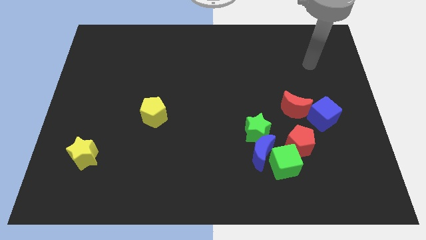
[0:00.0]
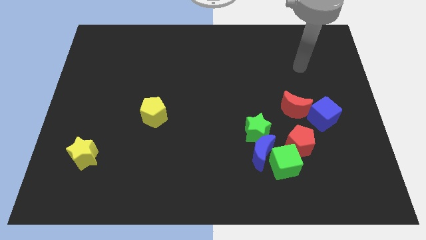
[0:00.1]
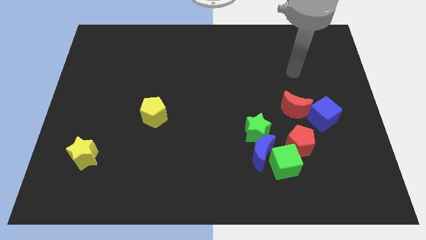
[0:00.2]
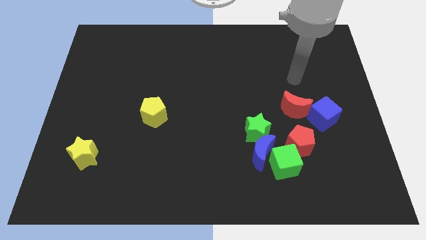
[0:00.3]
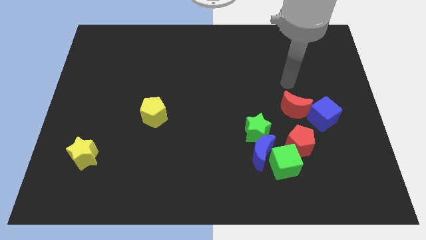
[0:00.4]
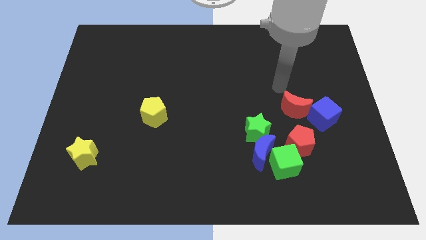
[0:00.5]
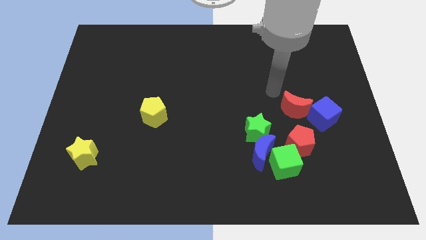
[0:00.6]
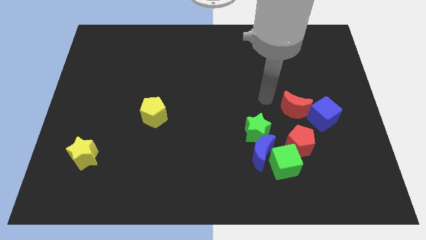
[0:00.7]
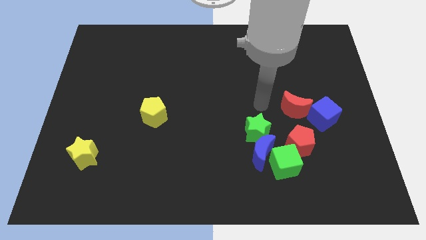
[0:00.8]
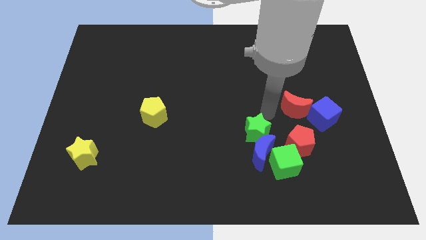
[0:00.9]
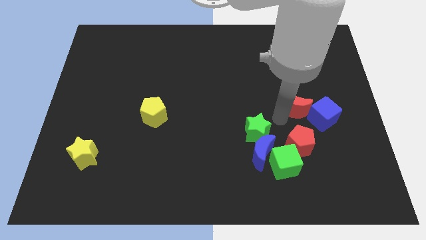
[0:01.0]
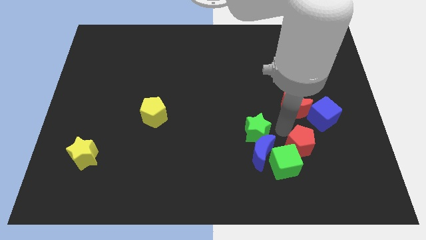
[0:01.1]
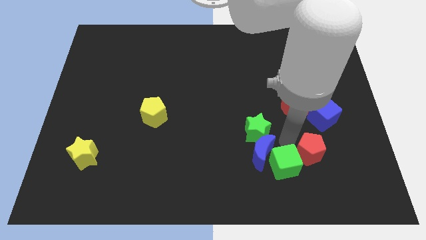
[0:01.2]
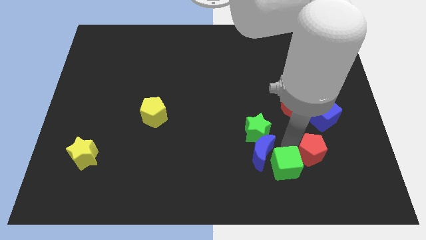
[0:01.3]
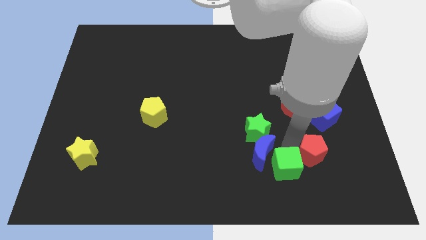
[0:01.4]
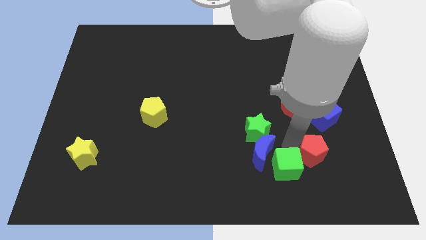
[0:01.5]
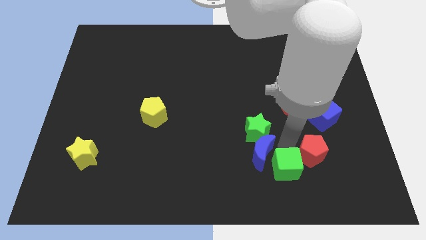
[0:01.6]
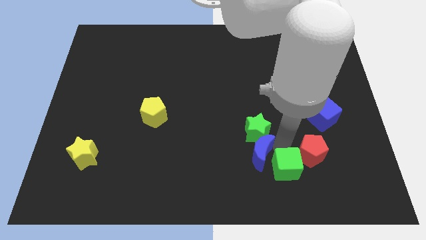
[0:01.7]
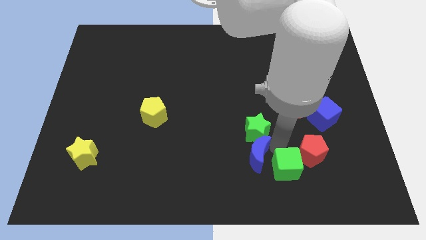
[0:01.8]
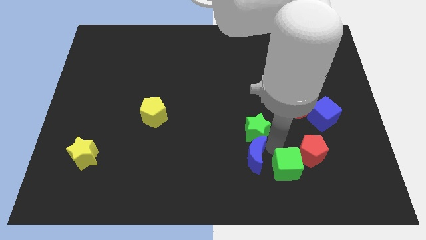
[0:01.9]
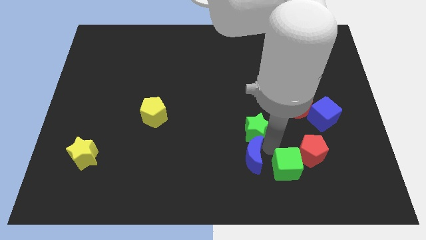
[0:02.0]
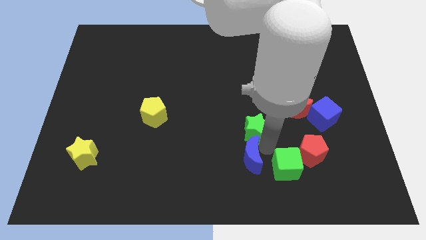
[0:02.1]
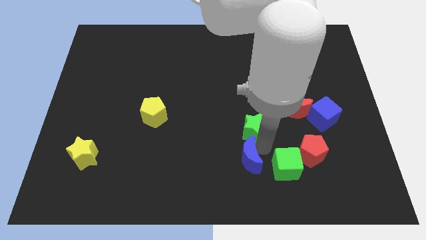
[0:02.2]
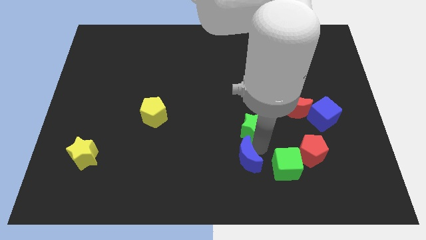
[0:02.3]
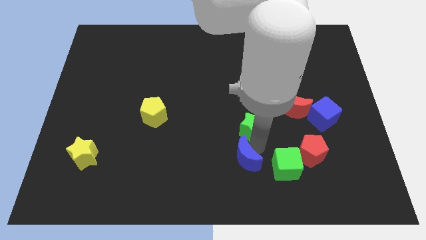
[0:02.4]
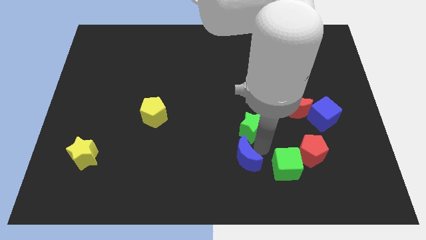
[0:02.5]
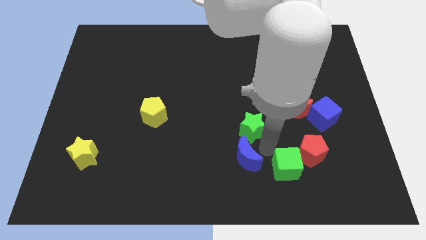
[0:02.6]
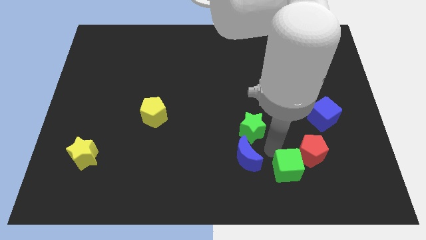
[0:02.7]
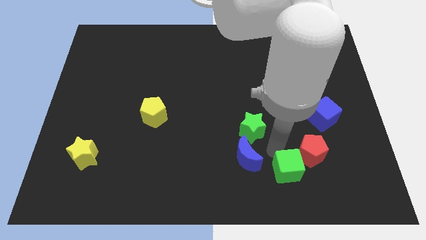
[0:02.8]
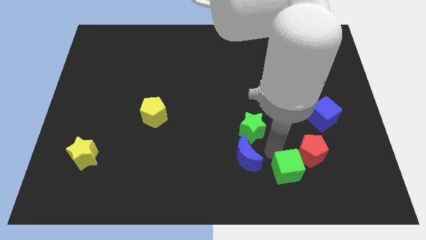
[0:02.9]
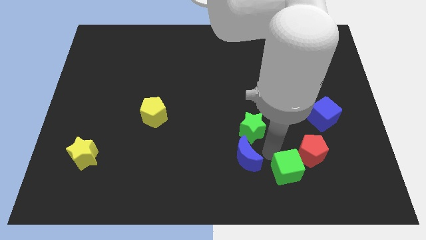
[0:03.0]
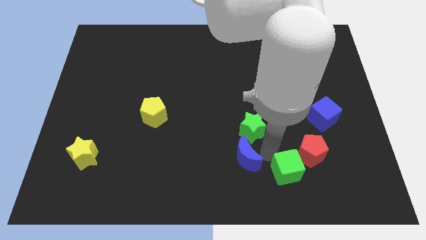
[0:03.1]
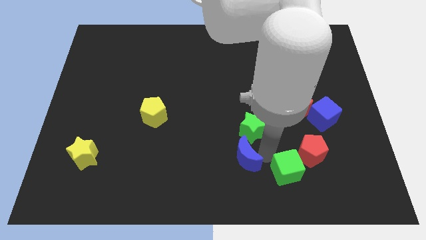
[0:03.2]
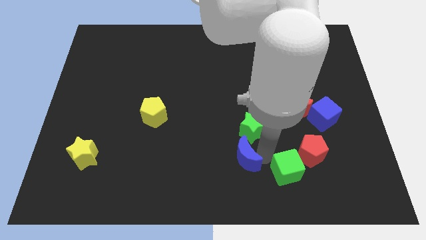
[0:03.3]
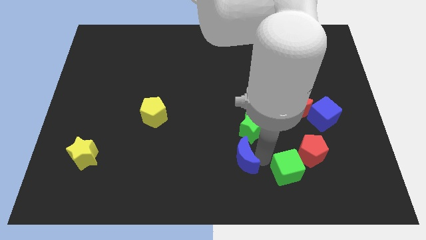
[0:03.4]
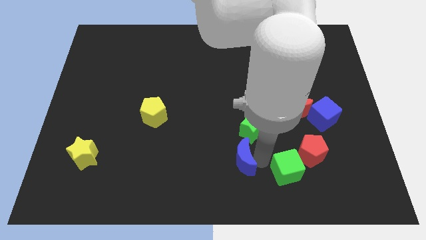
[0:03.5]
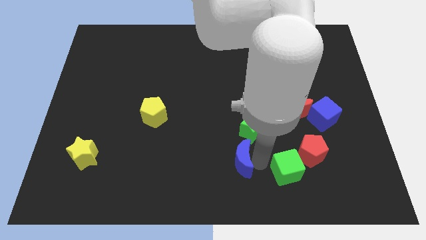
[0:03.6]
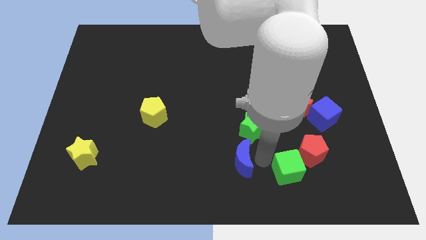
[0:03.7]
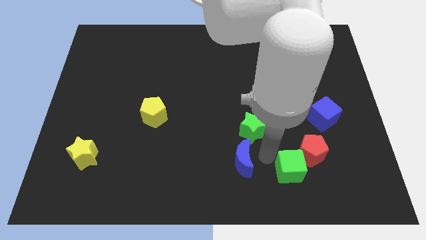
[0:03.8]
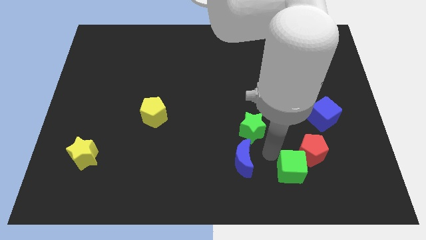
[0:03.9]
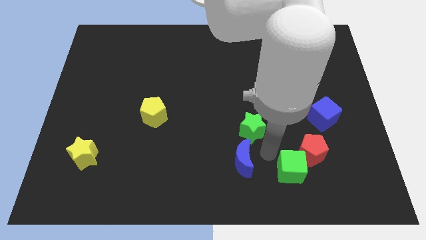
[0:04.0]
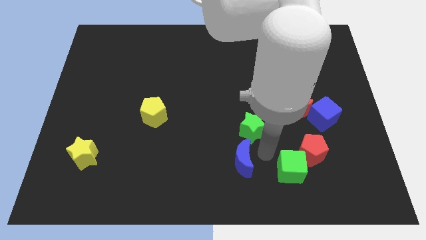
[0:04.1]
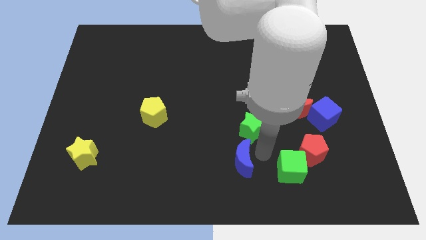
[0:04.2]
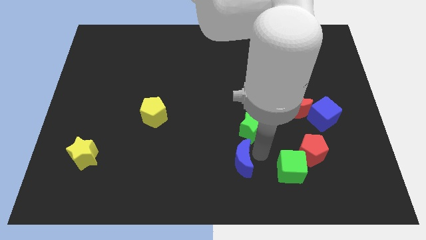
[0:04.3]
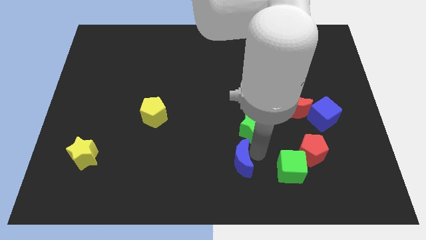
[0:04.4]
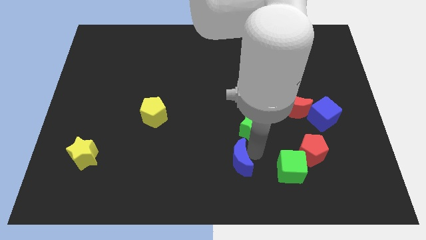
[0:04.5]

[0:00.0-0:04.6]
pull the blue moon apart from the group

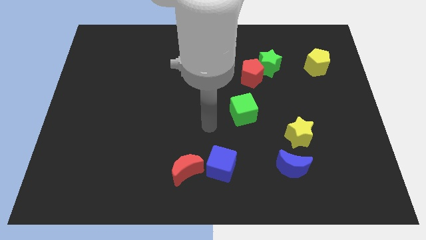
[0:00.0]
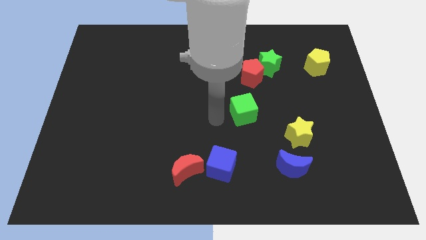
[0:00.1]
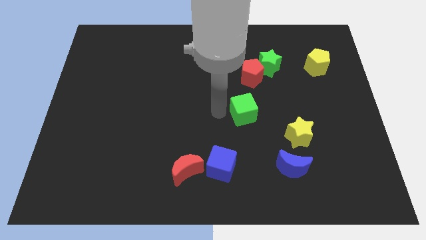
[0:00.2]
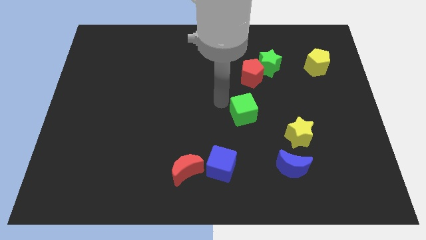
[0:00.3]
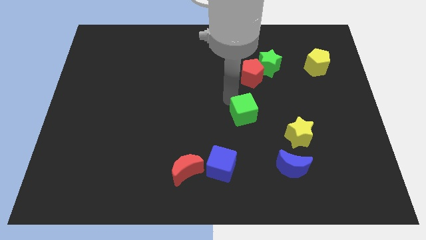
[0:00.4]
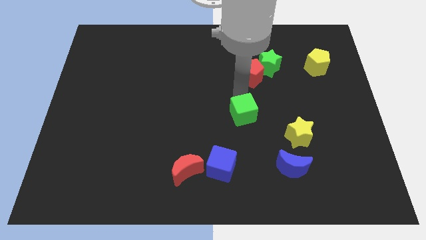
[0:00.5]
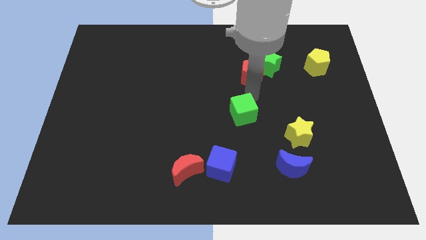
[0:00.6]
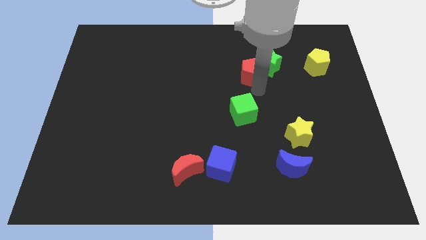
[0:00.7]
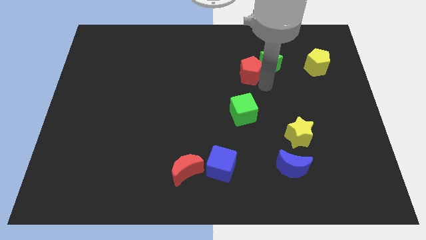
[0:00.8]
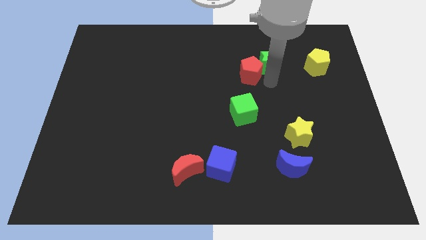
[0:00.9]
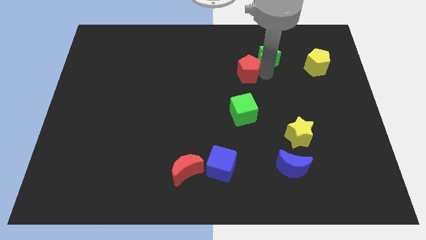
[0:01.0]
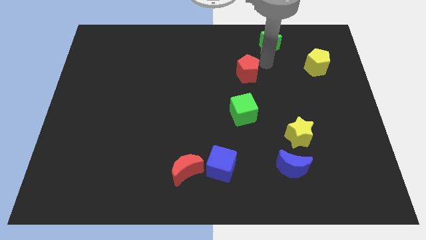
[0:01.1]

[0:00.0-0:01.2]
move the red pentagon away from the green star

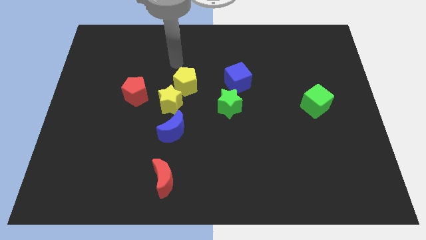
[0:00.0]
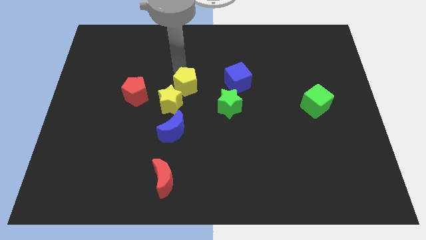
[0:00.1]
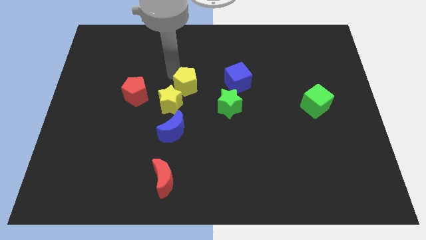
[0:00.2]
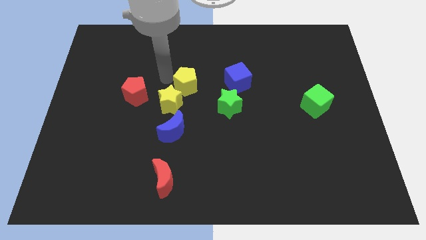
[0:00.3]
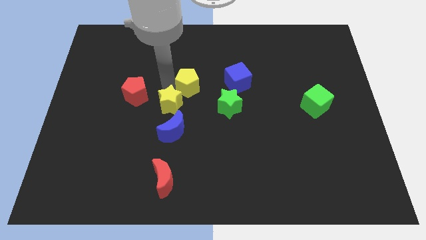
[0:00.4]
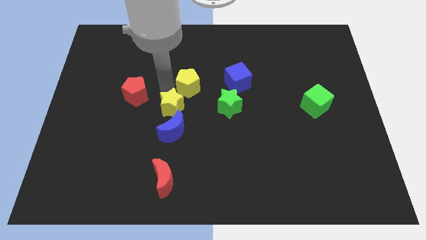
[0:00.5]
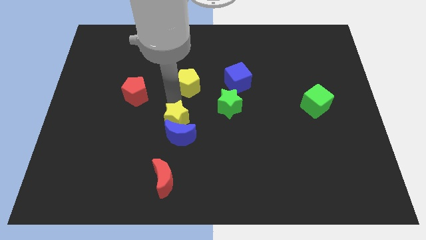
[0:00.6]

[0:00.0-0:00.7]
separate the yellow pentagon from the yellow star

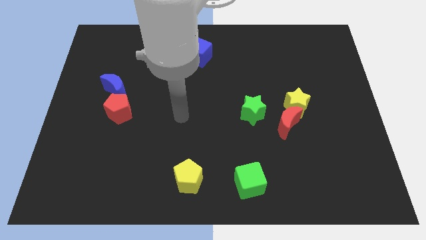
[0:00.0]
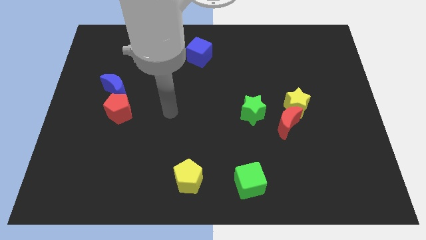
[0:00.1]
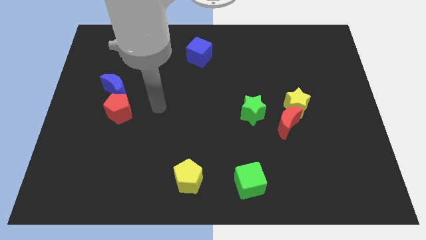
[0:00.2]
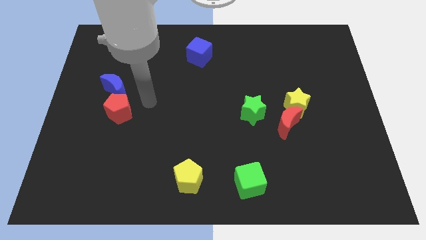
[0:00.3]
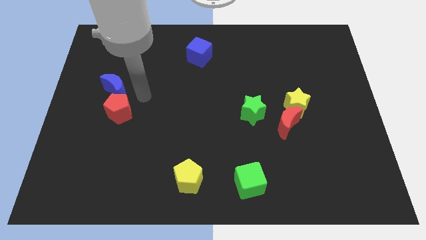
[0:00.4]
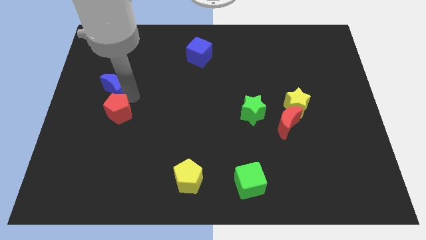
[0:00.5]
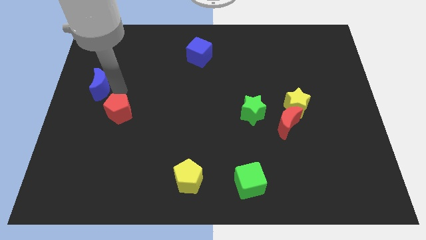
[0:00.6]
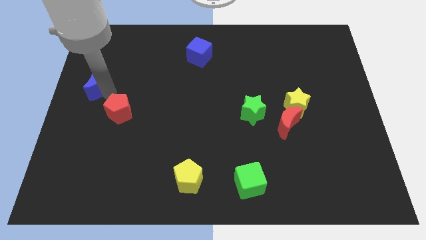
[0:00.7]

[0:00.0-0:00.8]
pull the red pentagon apart from the blue moon

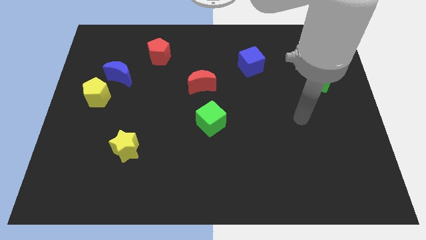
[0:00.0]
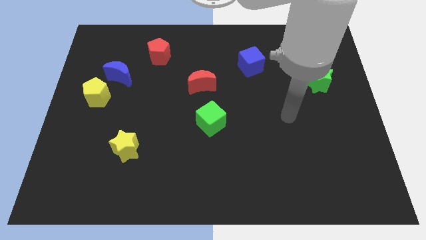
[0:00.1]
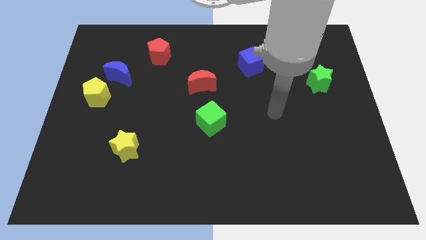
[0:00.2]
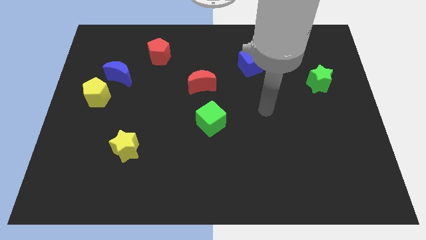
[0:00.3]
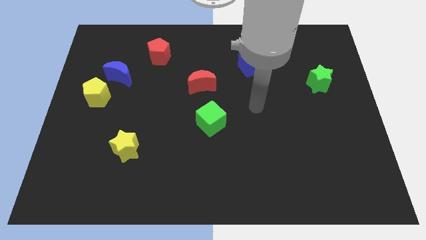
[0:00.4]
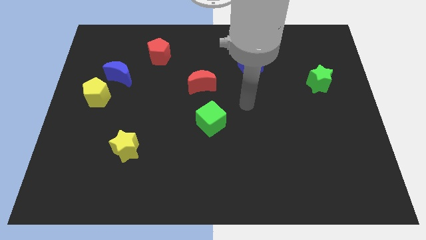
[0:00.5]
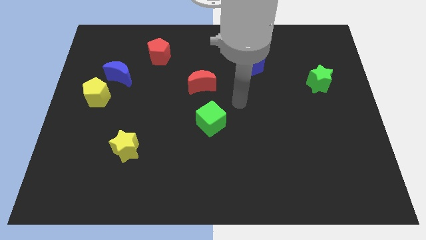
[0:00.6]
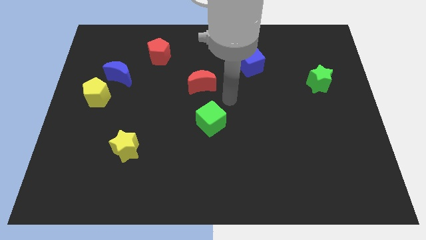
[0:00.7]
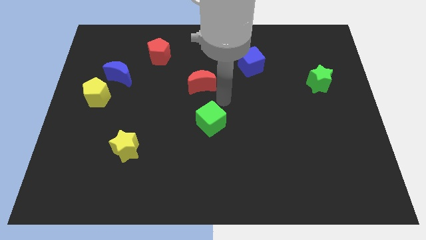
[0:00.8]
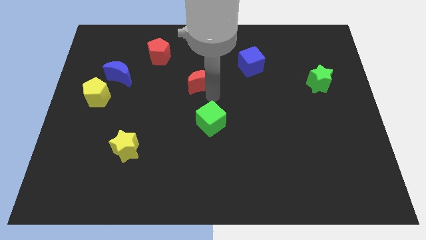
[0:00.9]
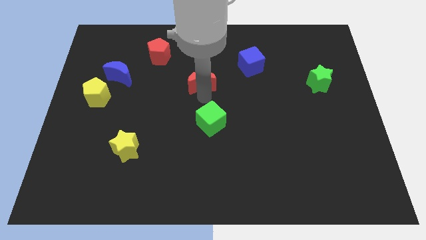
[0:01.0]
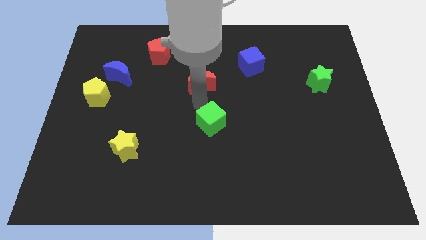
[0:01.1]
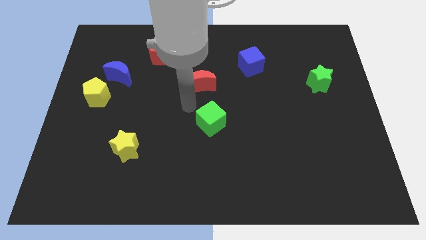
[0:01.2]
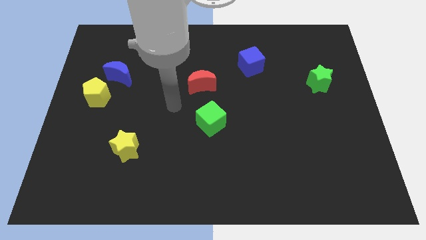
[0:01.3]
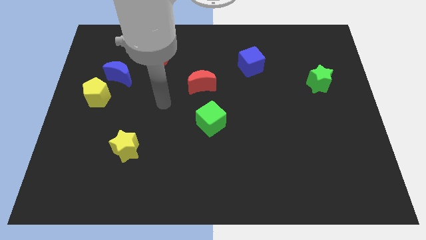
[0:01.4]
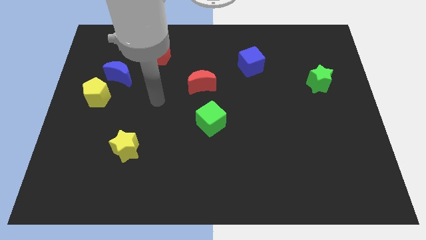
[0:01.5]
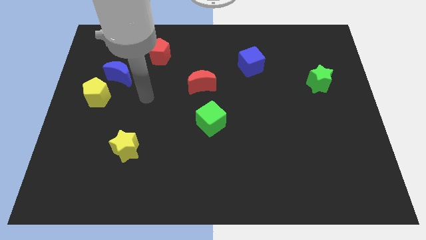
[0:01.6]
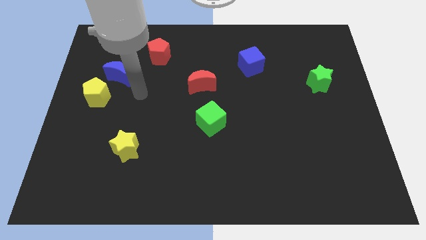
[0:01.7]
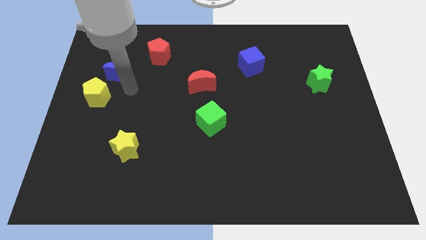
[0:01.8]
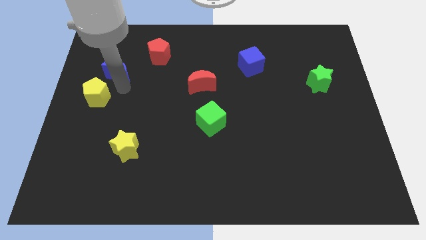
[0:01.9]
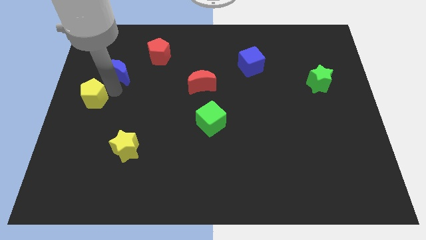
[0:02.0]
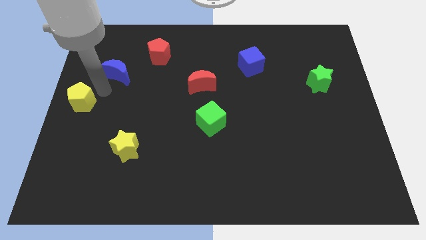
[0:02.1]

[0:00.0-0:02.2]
separate the blue moon from the yellow pentagon

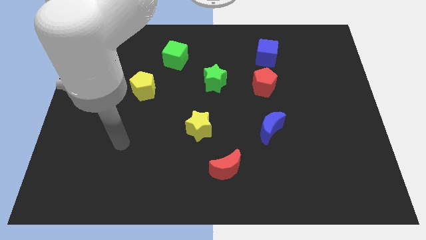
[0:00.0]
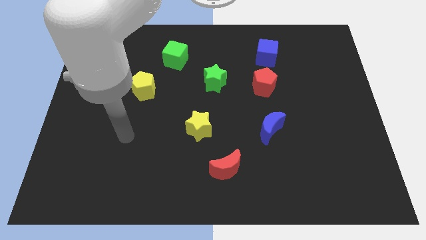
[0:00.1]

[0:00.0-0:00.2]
separate the red pentagon from the blue cube
